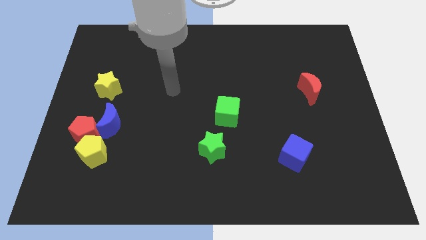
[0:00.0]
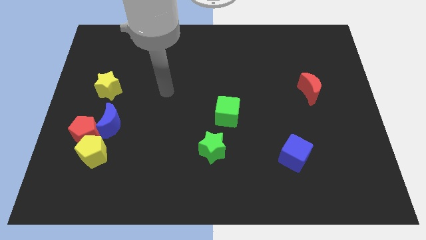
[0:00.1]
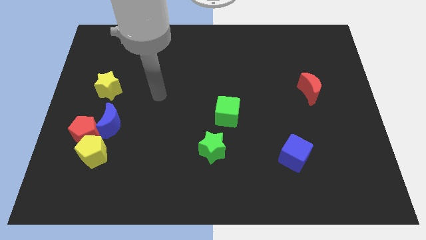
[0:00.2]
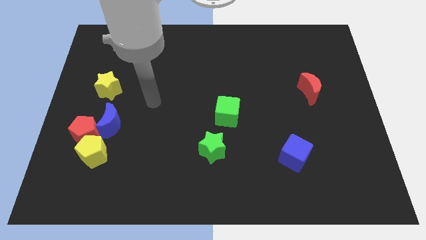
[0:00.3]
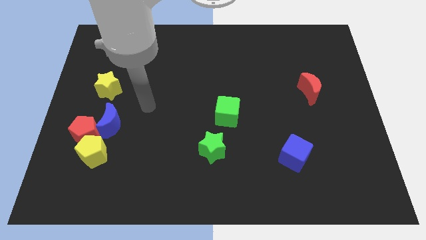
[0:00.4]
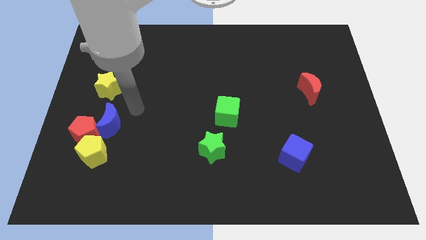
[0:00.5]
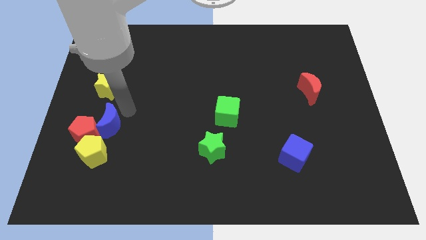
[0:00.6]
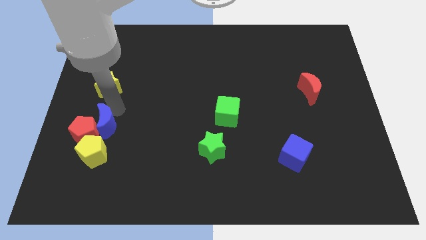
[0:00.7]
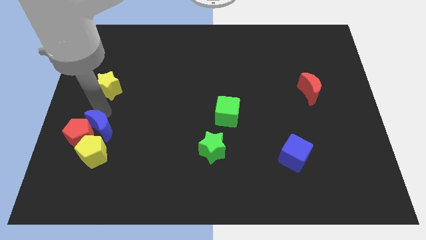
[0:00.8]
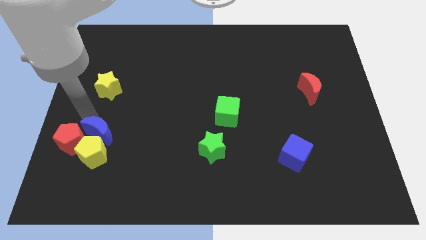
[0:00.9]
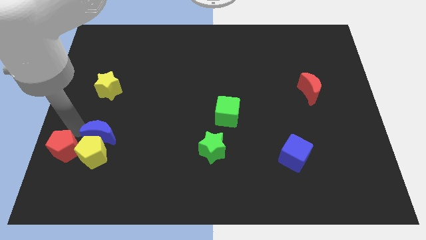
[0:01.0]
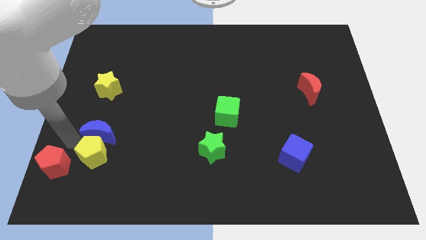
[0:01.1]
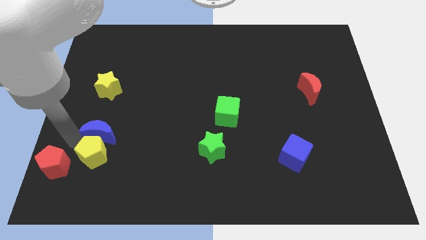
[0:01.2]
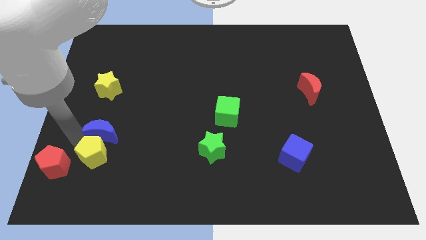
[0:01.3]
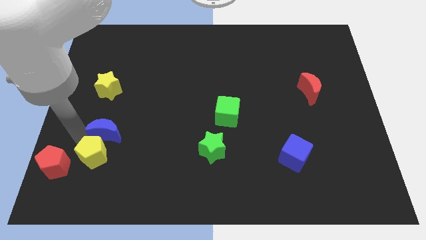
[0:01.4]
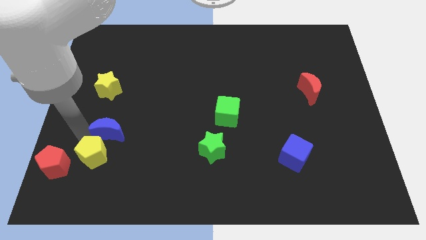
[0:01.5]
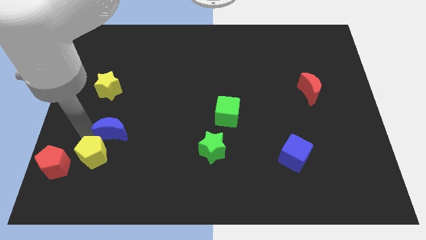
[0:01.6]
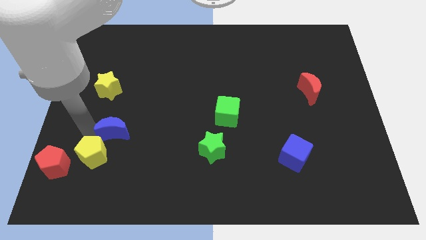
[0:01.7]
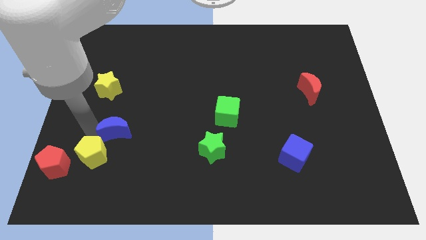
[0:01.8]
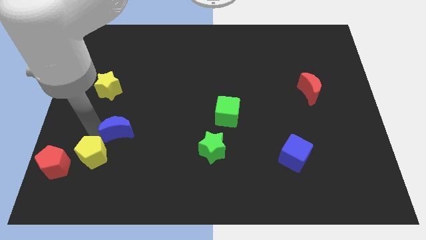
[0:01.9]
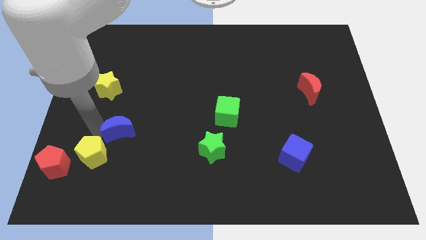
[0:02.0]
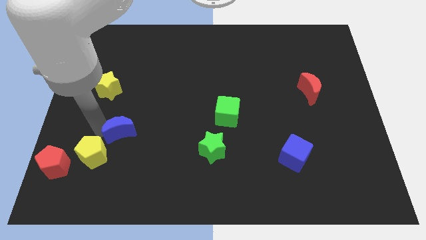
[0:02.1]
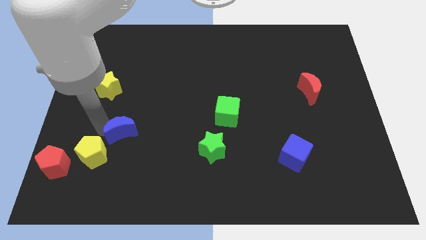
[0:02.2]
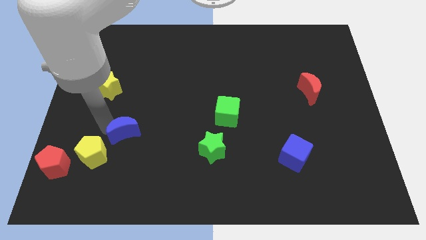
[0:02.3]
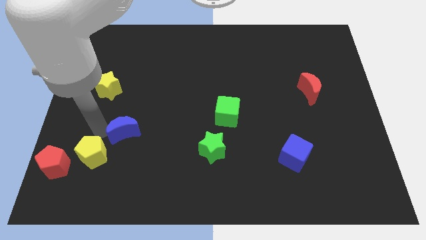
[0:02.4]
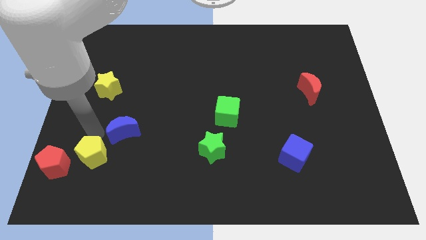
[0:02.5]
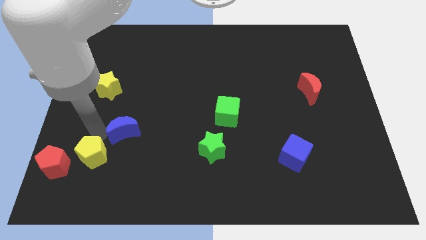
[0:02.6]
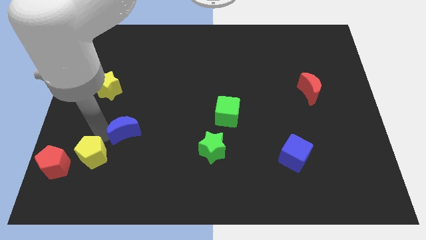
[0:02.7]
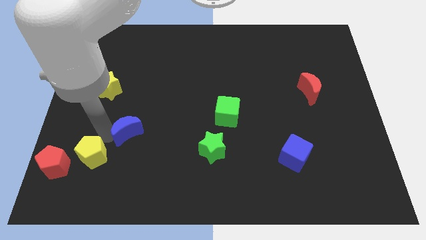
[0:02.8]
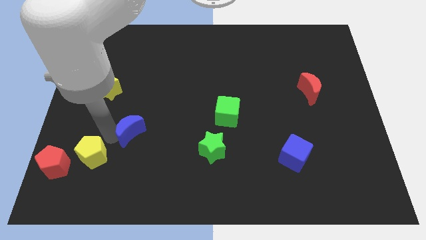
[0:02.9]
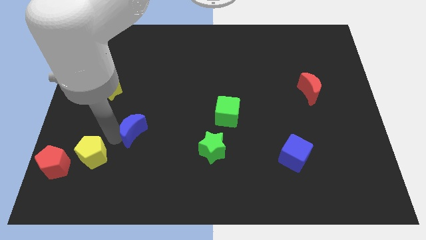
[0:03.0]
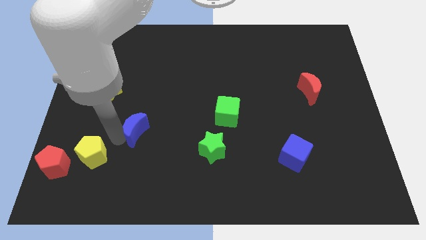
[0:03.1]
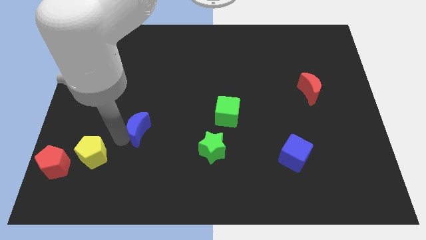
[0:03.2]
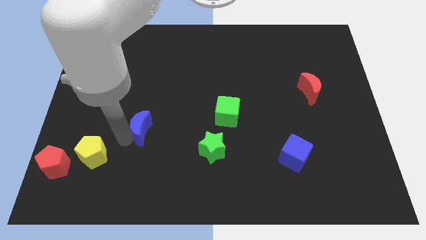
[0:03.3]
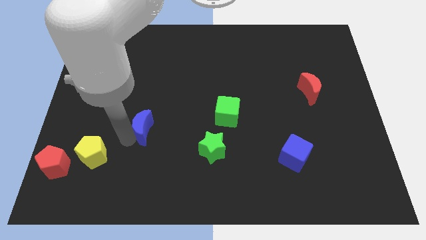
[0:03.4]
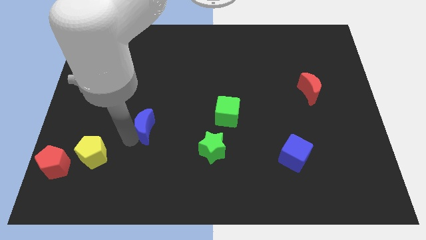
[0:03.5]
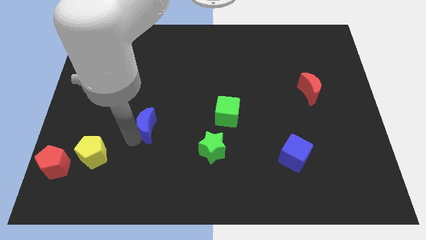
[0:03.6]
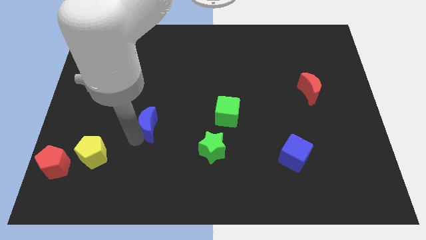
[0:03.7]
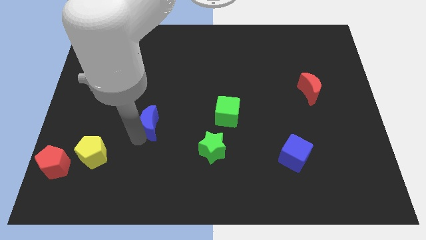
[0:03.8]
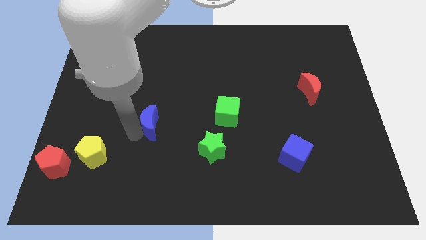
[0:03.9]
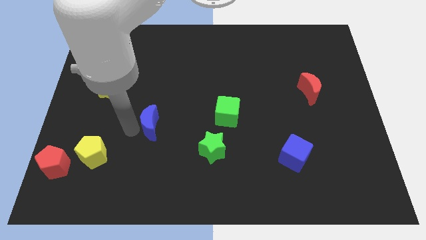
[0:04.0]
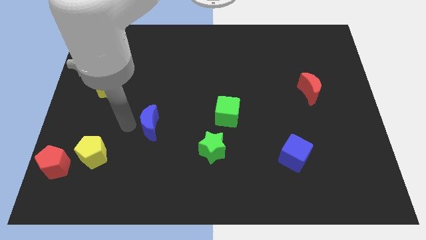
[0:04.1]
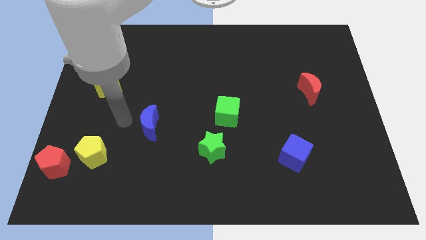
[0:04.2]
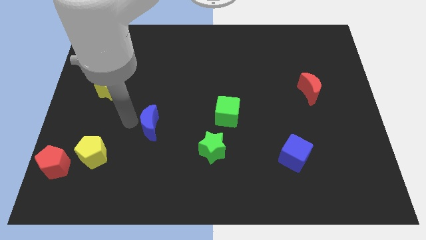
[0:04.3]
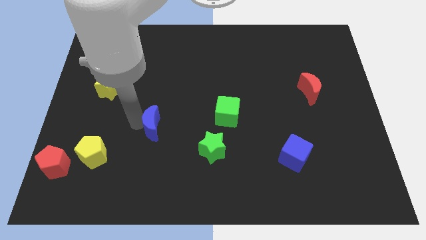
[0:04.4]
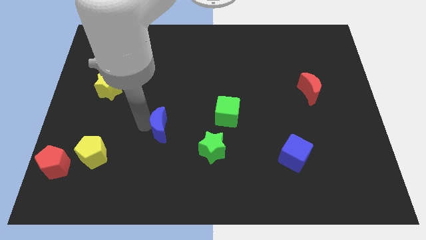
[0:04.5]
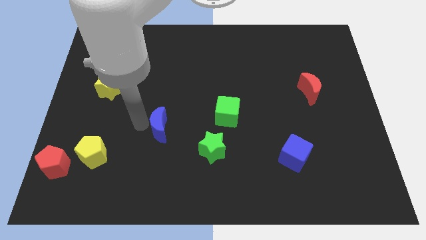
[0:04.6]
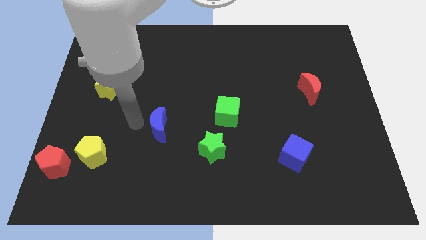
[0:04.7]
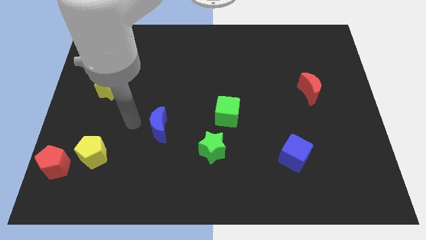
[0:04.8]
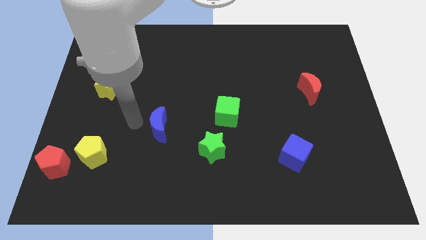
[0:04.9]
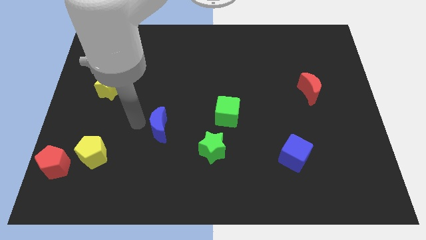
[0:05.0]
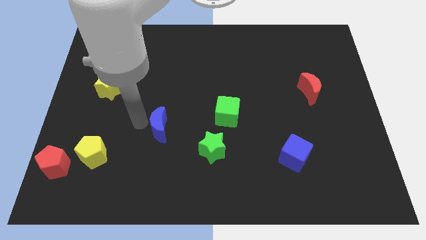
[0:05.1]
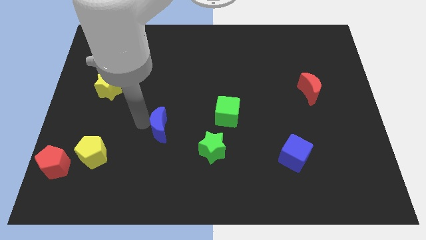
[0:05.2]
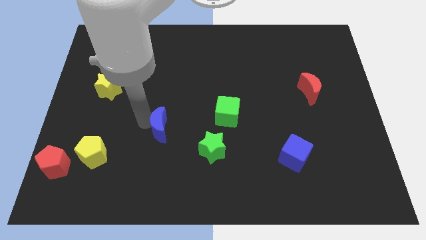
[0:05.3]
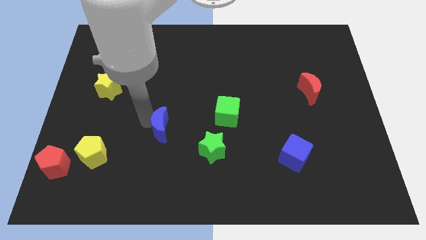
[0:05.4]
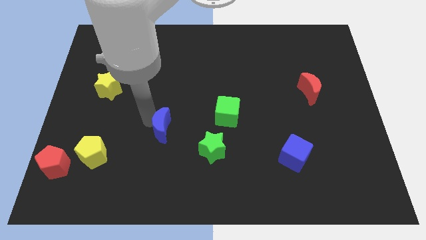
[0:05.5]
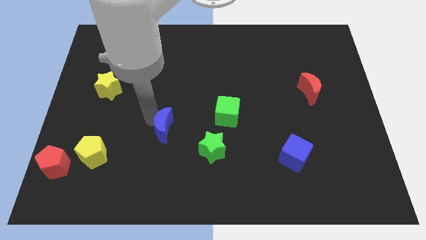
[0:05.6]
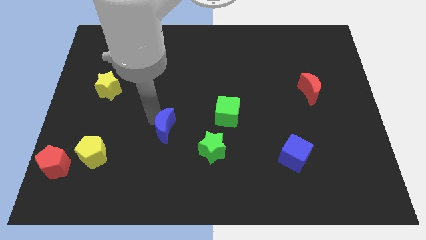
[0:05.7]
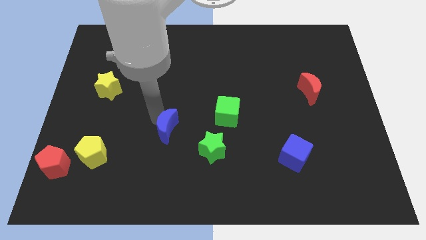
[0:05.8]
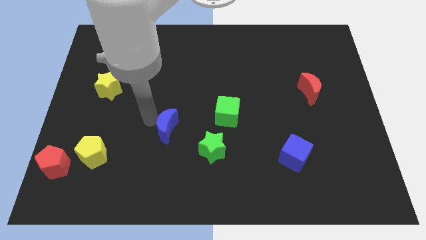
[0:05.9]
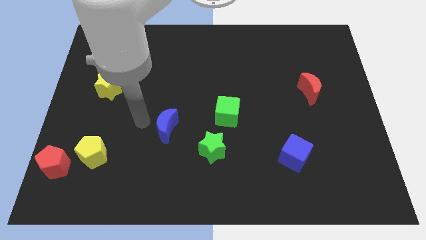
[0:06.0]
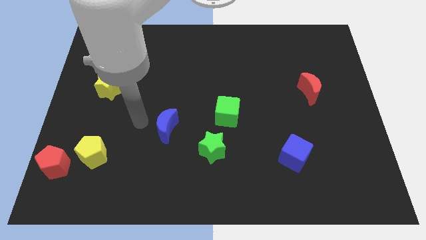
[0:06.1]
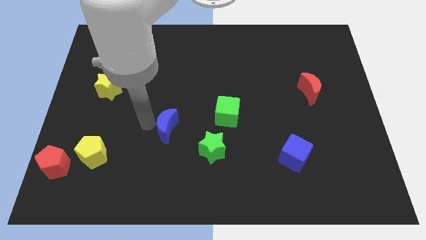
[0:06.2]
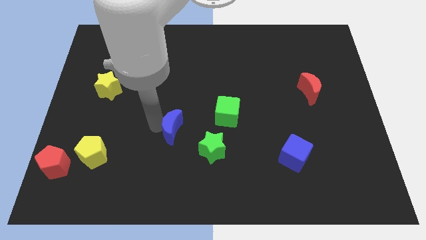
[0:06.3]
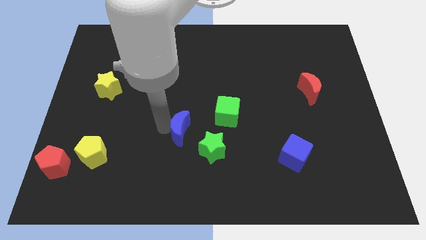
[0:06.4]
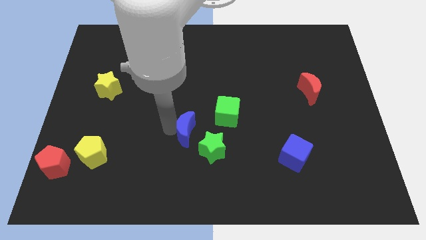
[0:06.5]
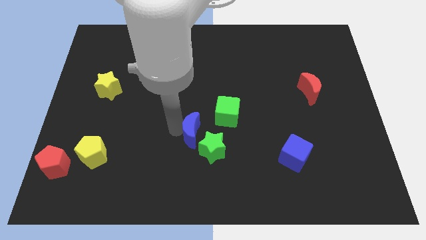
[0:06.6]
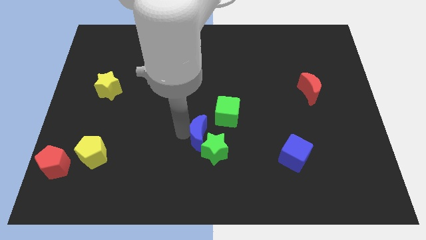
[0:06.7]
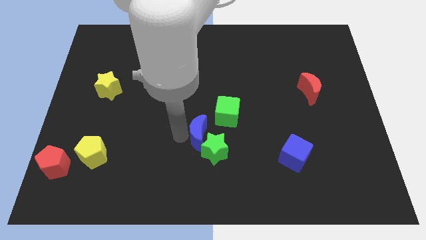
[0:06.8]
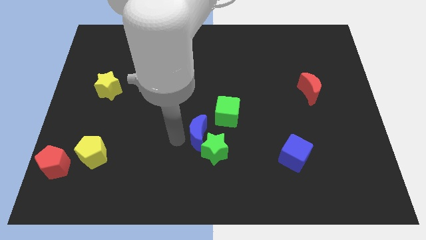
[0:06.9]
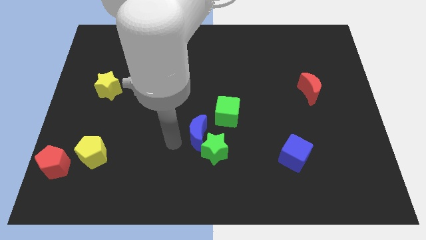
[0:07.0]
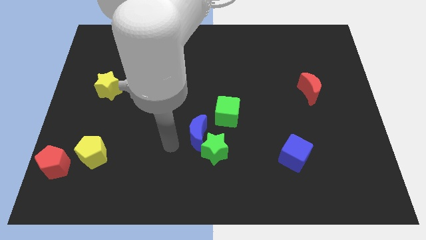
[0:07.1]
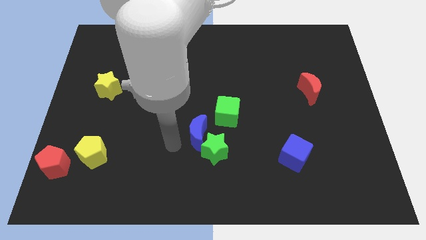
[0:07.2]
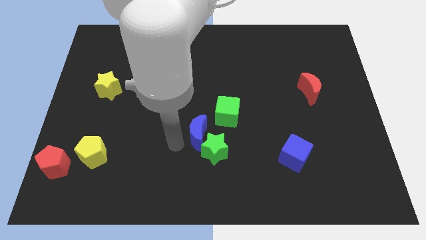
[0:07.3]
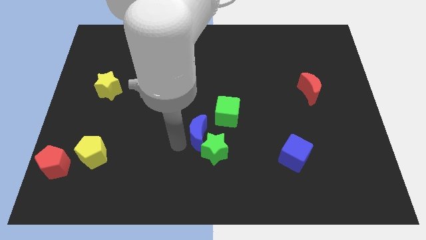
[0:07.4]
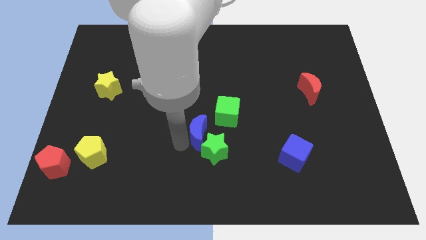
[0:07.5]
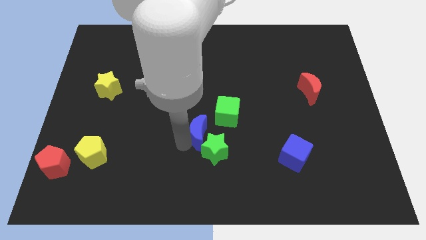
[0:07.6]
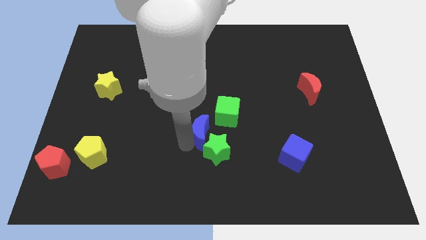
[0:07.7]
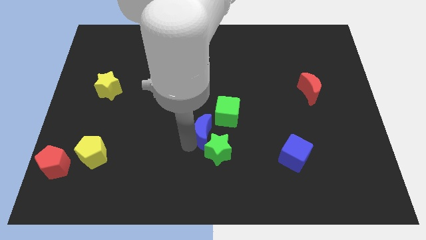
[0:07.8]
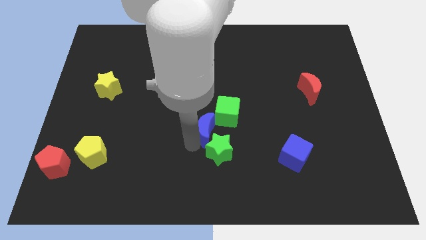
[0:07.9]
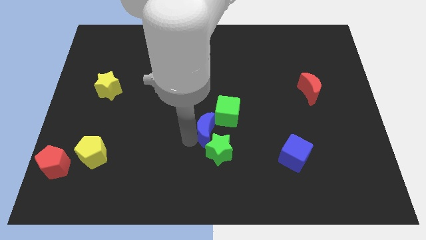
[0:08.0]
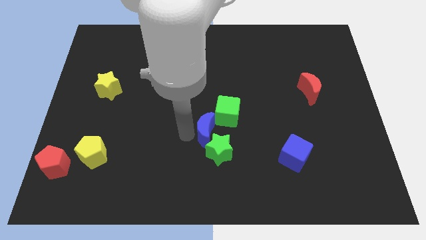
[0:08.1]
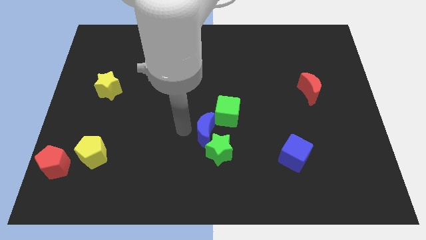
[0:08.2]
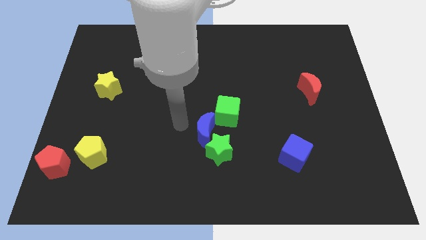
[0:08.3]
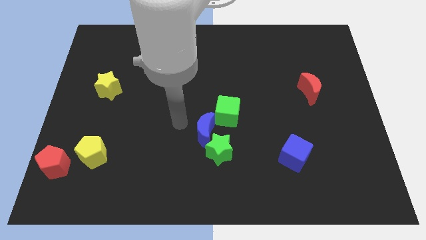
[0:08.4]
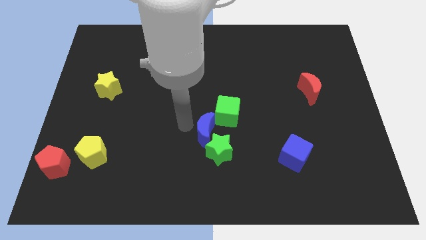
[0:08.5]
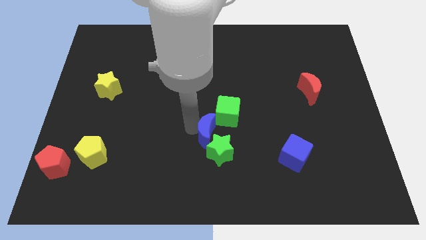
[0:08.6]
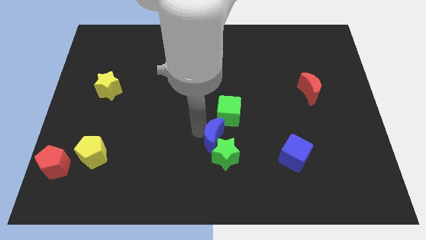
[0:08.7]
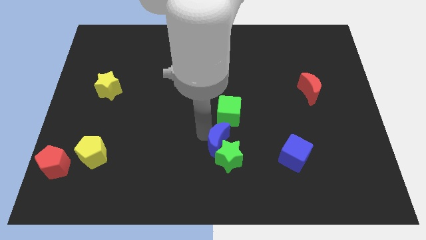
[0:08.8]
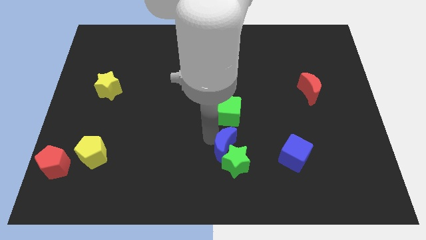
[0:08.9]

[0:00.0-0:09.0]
move the blue moon to the left side of the blue cube
